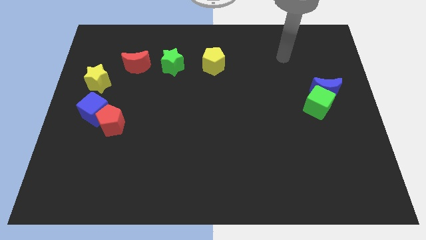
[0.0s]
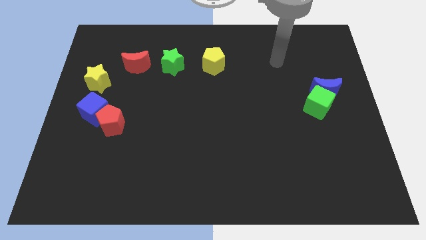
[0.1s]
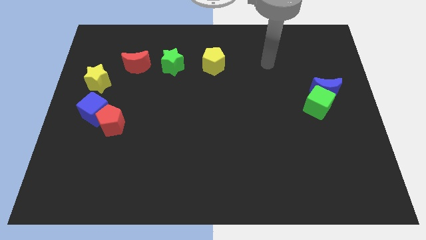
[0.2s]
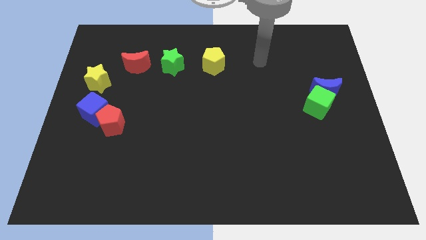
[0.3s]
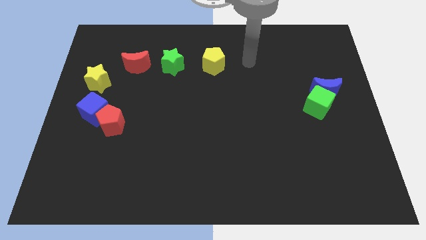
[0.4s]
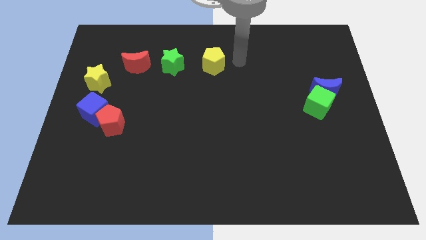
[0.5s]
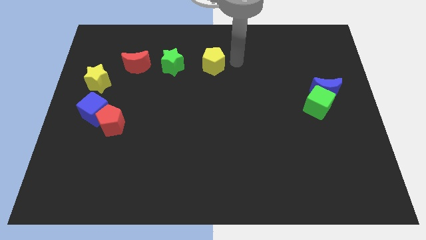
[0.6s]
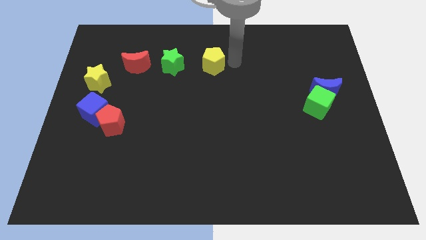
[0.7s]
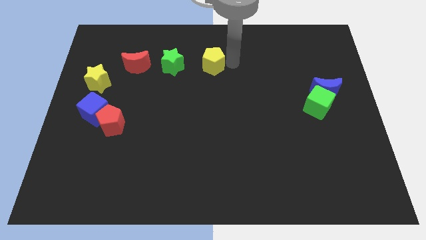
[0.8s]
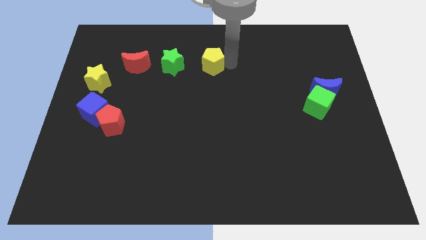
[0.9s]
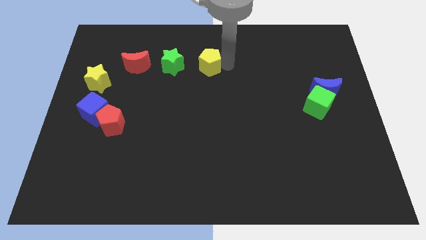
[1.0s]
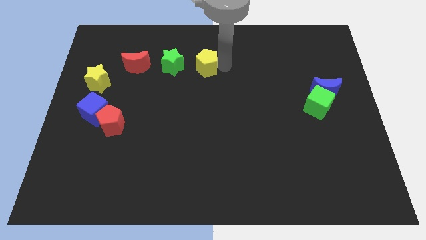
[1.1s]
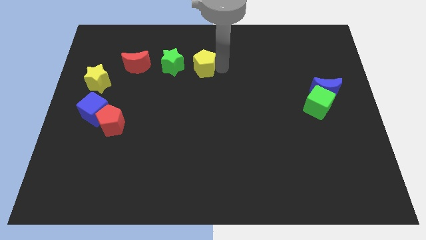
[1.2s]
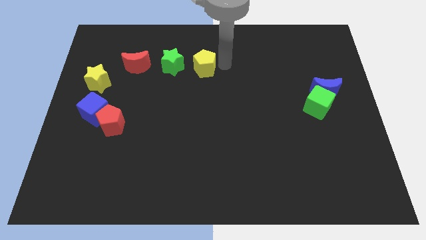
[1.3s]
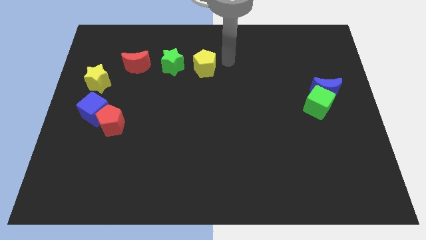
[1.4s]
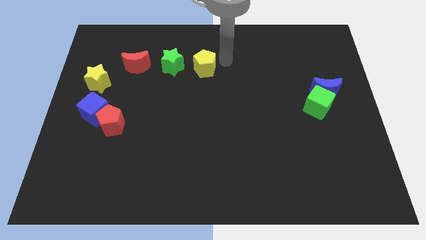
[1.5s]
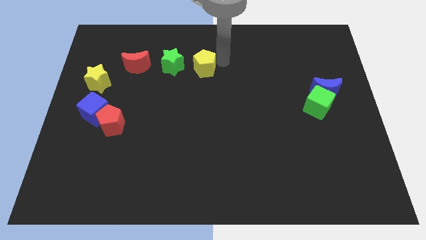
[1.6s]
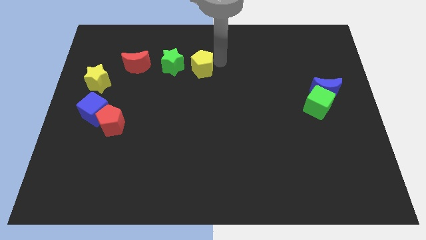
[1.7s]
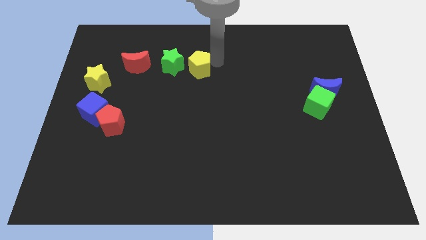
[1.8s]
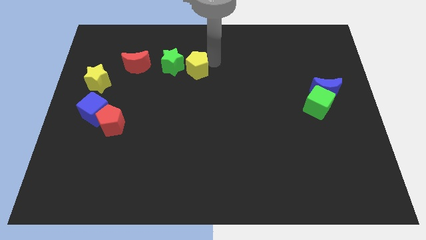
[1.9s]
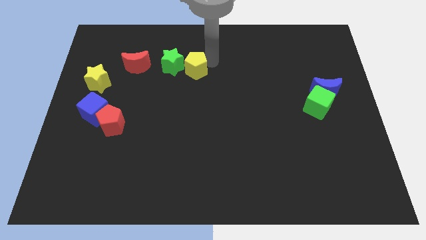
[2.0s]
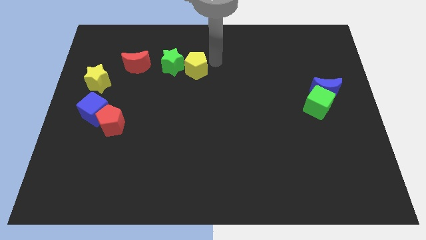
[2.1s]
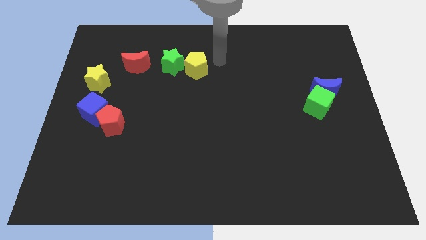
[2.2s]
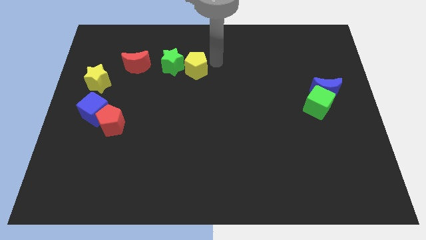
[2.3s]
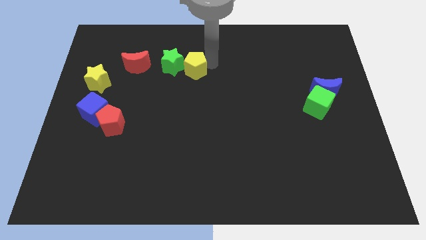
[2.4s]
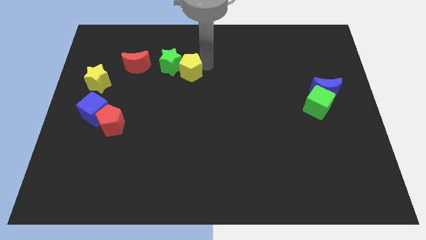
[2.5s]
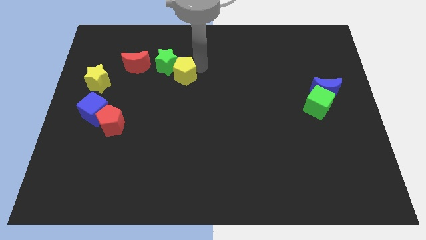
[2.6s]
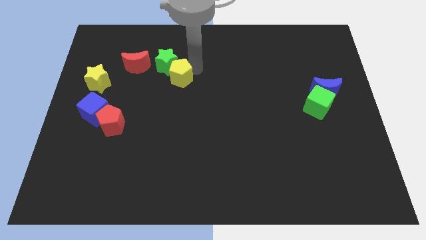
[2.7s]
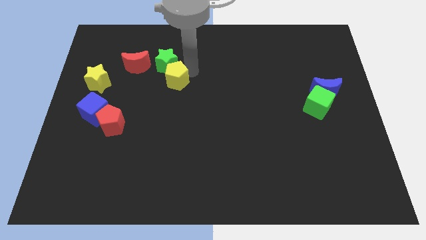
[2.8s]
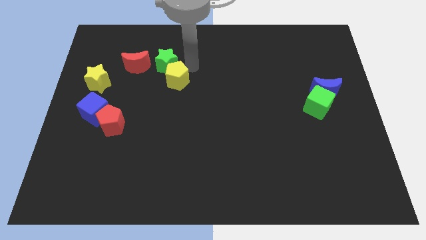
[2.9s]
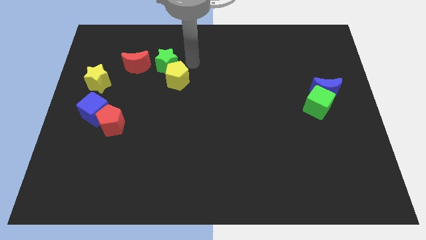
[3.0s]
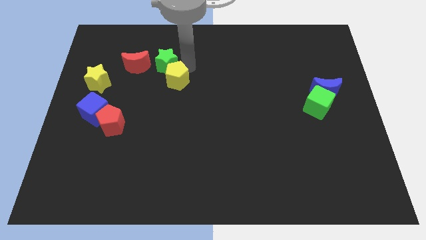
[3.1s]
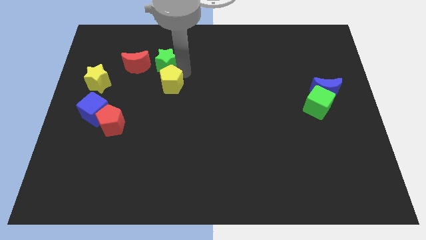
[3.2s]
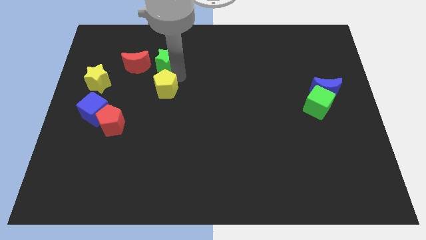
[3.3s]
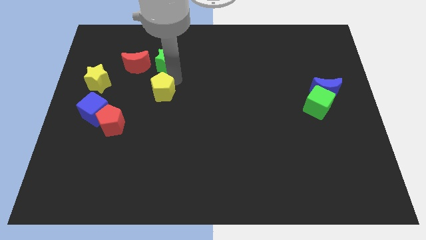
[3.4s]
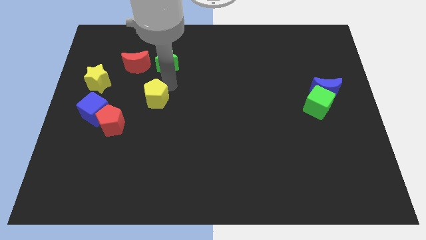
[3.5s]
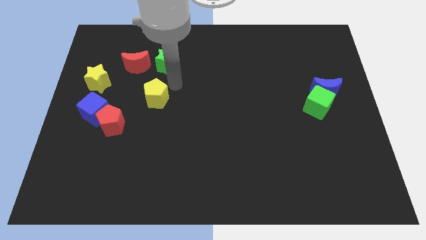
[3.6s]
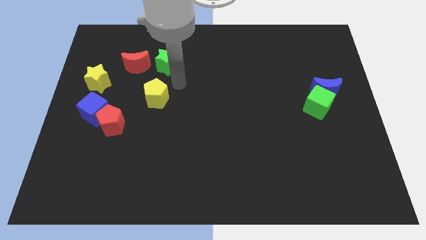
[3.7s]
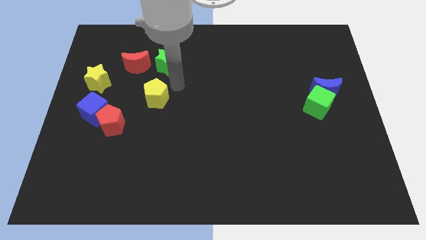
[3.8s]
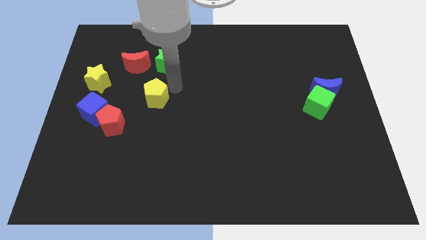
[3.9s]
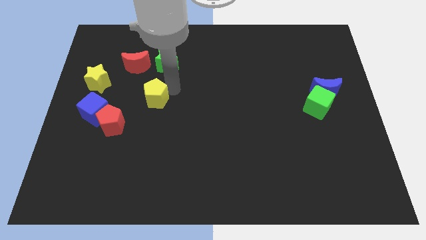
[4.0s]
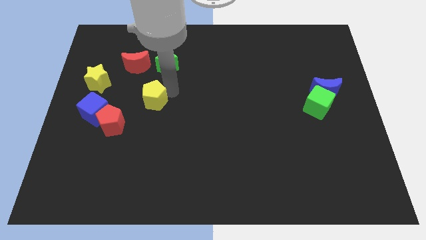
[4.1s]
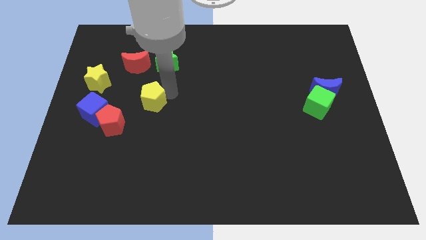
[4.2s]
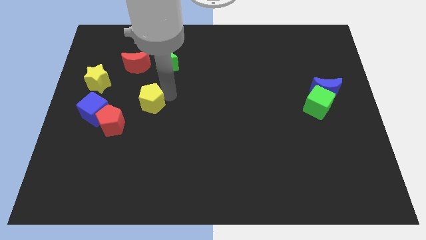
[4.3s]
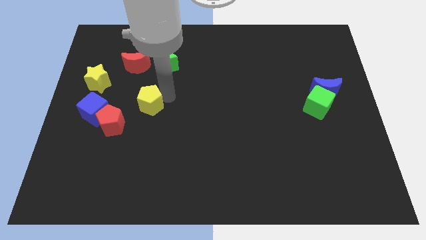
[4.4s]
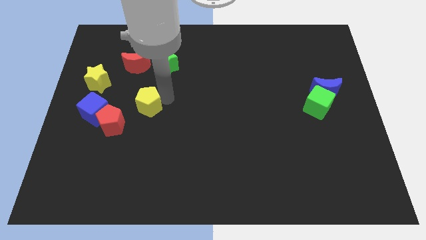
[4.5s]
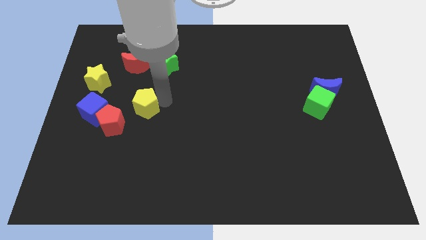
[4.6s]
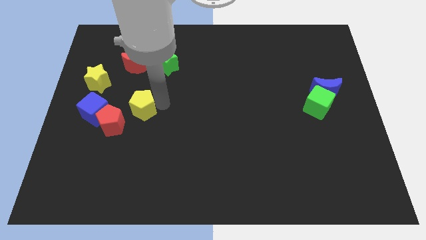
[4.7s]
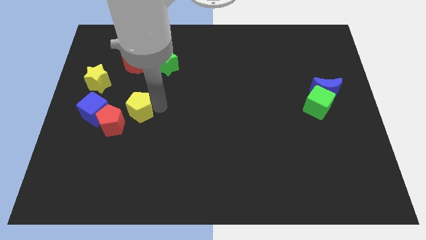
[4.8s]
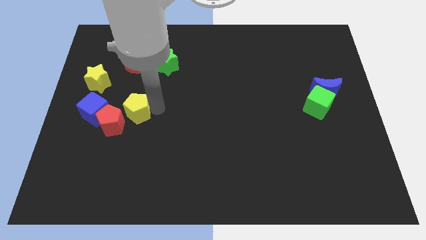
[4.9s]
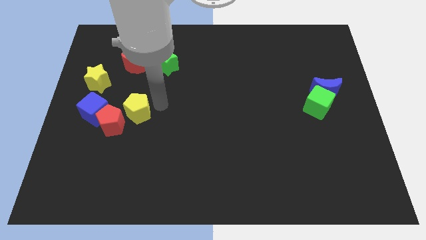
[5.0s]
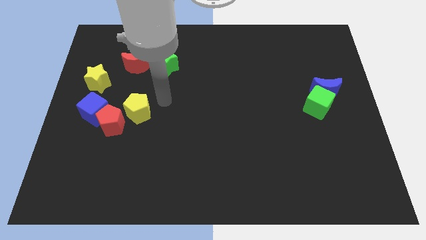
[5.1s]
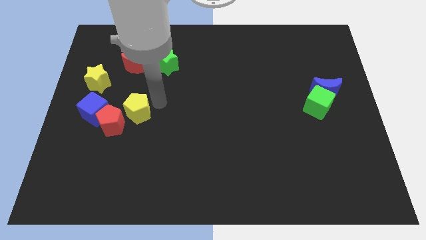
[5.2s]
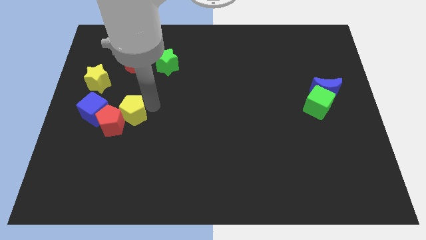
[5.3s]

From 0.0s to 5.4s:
put the yellow pentagon close to the red pentagon

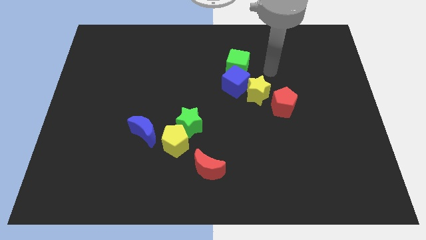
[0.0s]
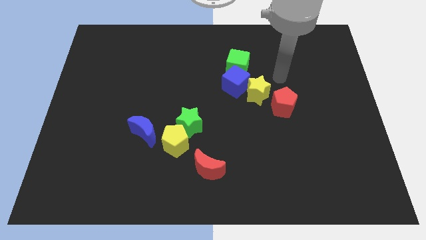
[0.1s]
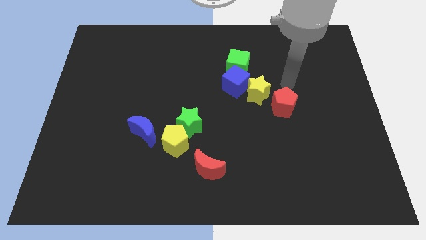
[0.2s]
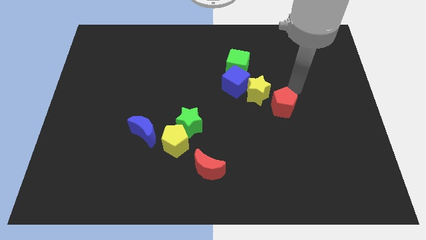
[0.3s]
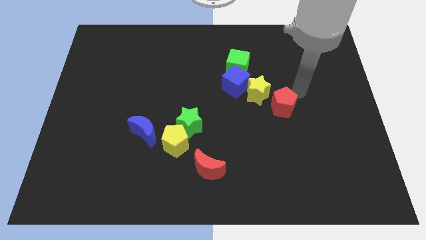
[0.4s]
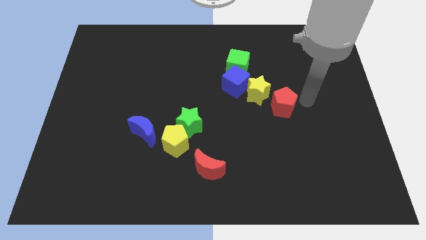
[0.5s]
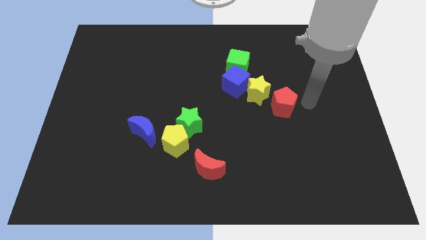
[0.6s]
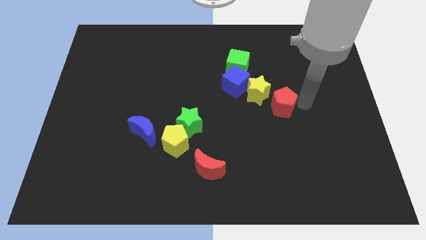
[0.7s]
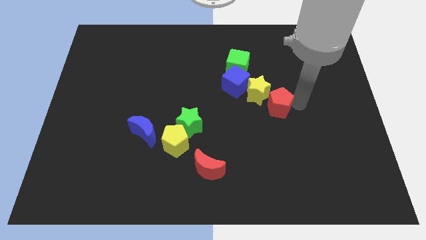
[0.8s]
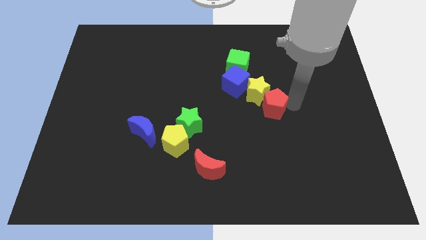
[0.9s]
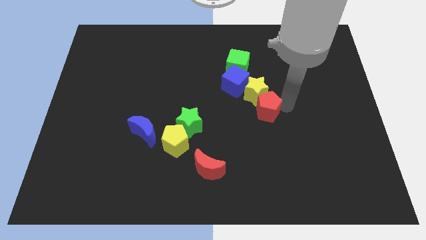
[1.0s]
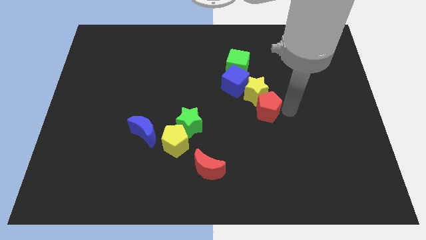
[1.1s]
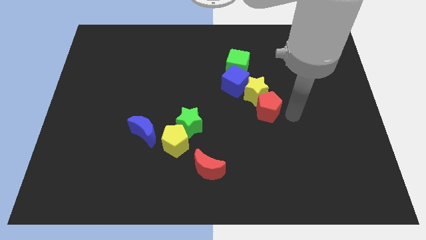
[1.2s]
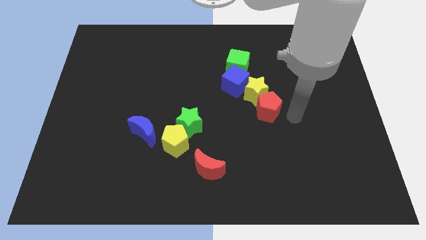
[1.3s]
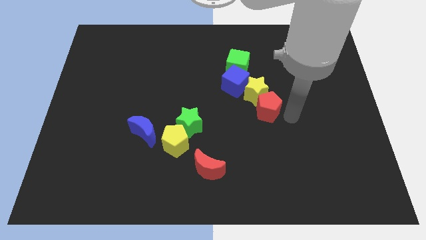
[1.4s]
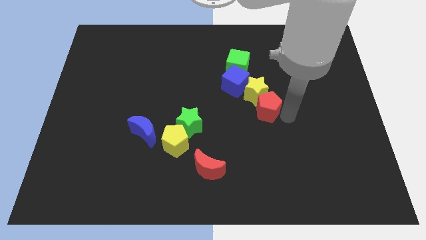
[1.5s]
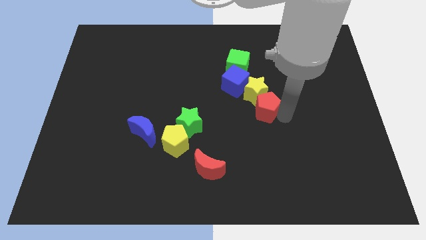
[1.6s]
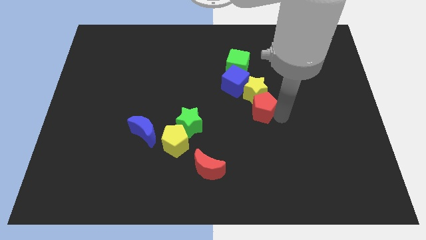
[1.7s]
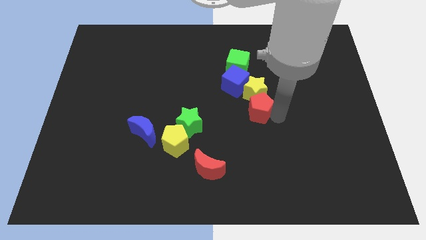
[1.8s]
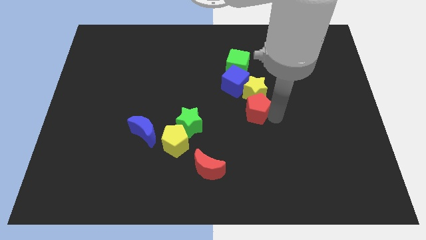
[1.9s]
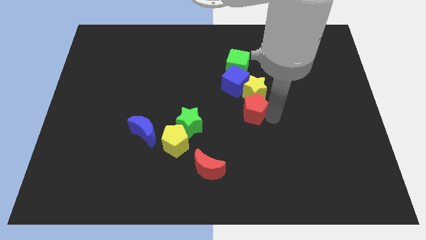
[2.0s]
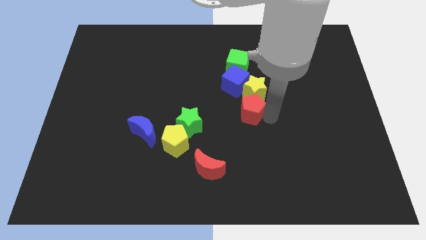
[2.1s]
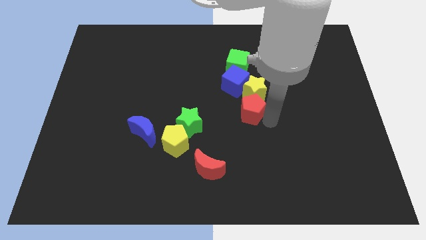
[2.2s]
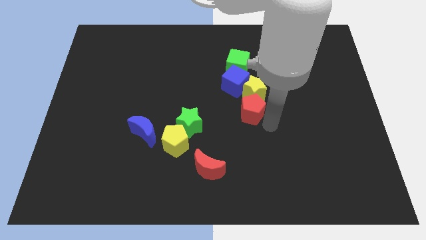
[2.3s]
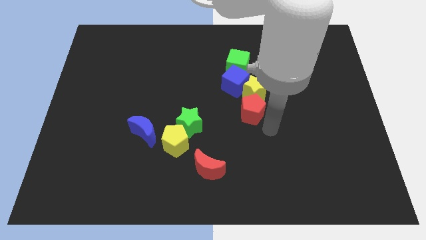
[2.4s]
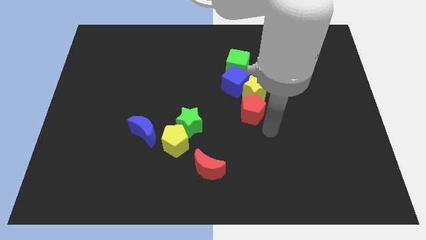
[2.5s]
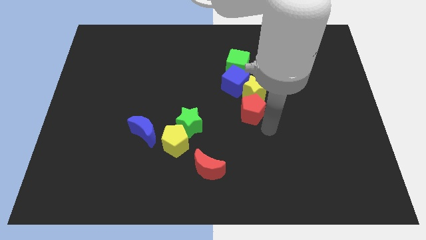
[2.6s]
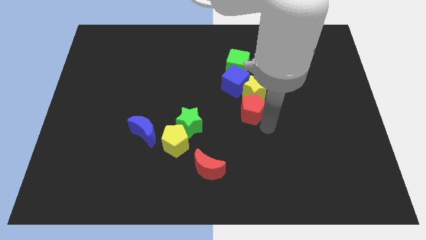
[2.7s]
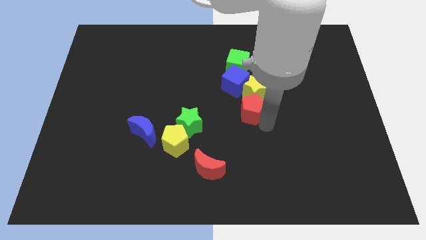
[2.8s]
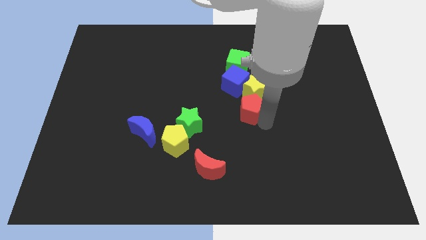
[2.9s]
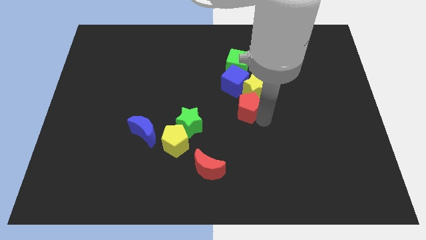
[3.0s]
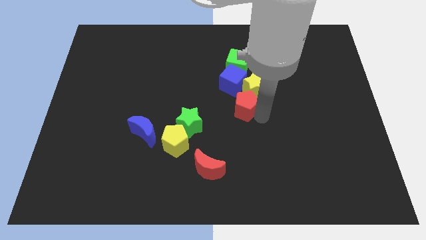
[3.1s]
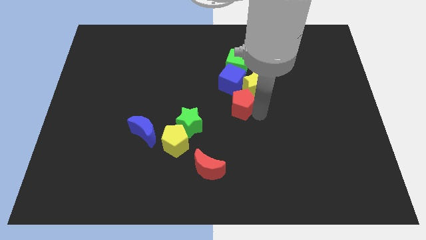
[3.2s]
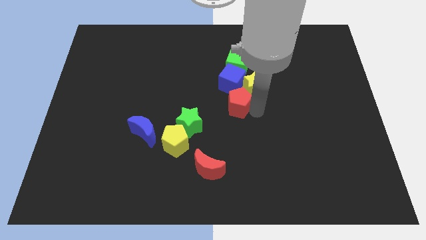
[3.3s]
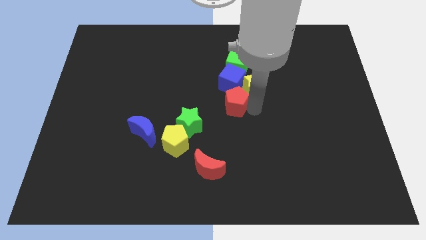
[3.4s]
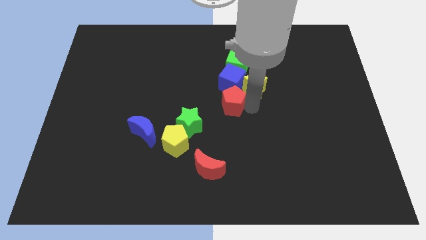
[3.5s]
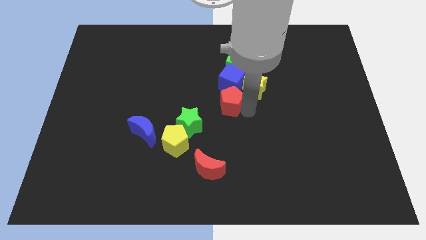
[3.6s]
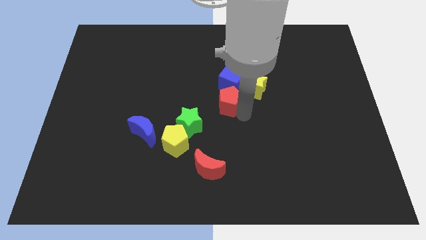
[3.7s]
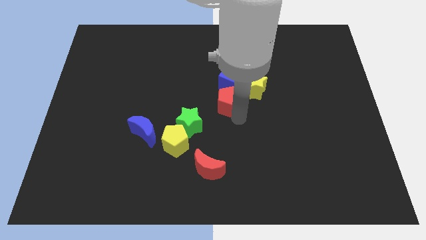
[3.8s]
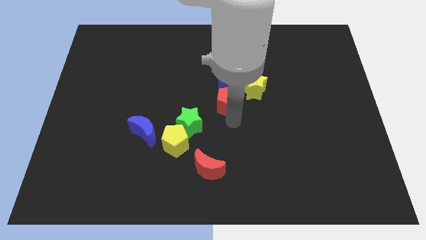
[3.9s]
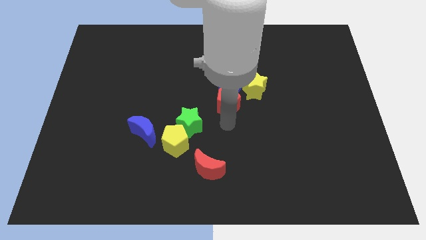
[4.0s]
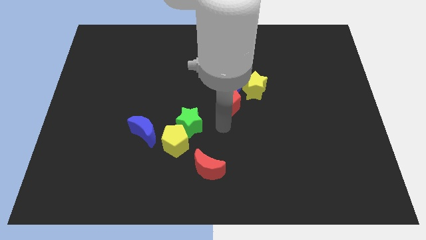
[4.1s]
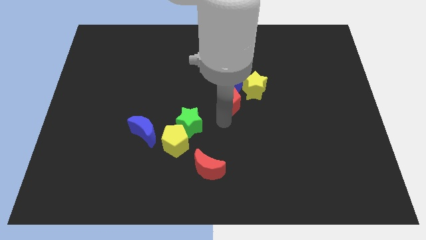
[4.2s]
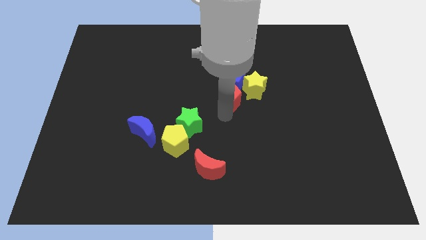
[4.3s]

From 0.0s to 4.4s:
slide the red pentagon next to the blue cube
